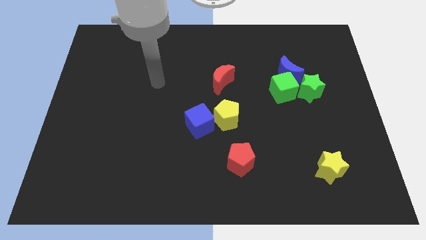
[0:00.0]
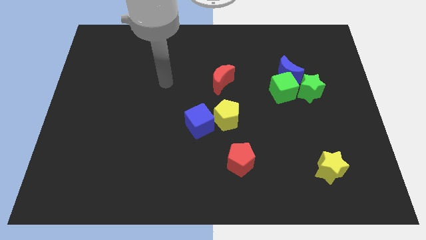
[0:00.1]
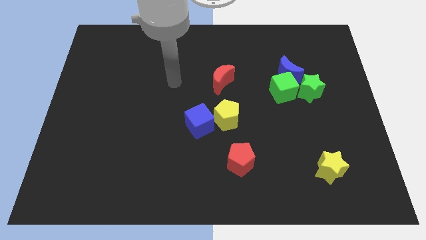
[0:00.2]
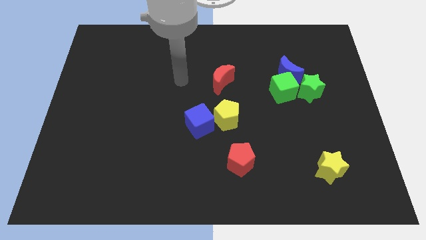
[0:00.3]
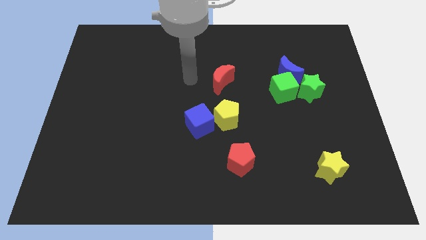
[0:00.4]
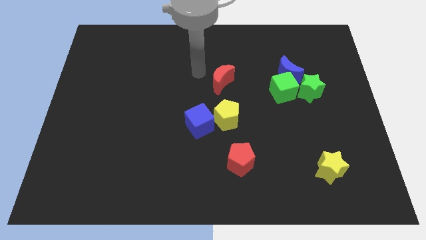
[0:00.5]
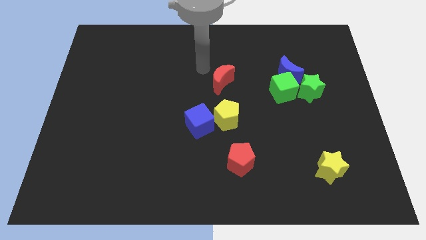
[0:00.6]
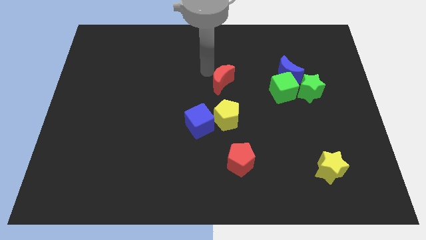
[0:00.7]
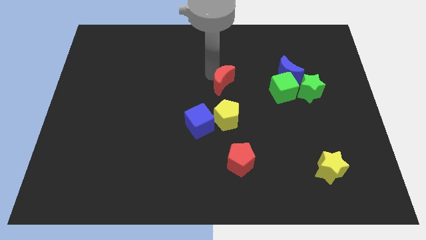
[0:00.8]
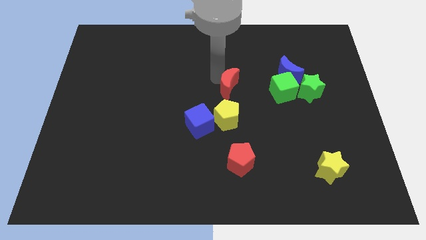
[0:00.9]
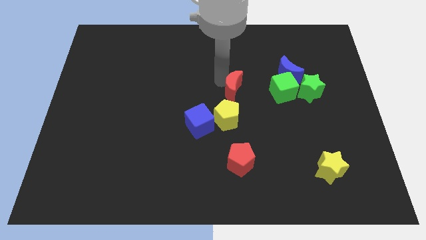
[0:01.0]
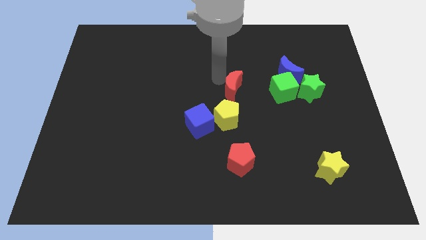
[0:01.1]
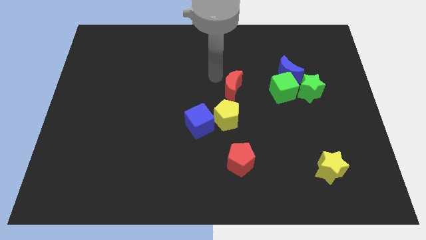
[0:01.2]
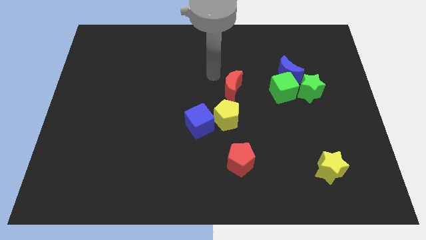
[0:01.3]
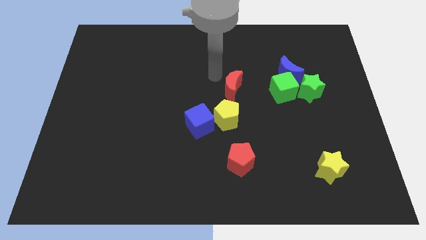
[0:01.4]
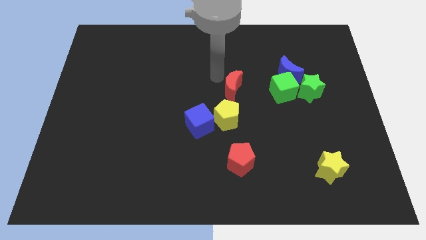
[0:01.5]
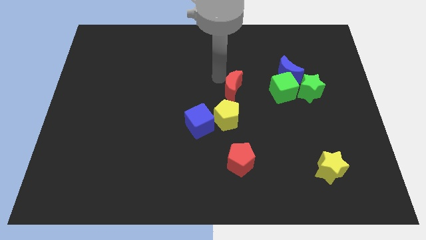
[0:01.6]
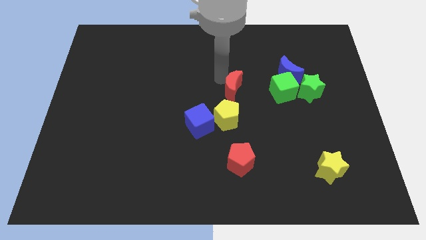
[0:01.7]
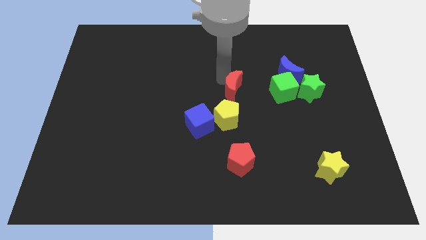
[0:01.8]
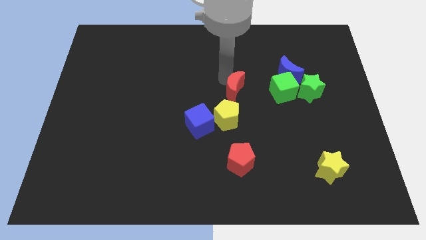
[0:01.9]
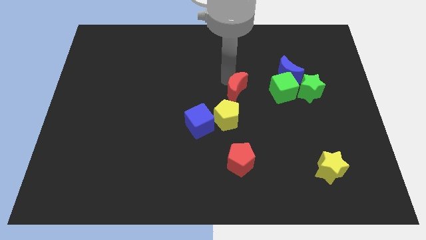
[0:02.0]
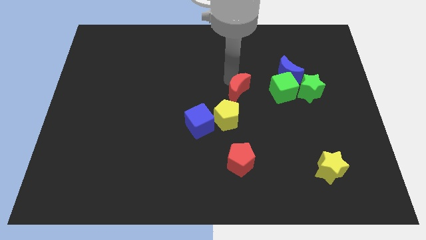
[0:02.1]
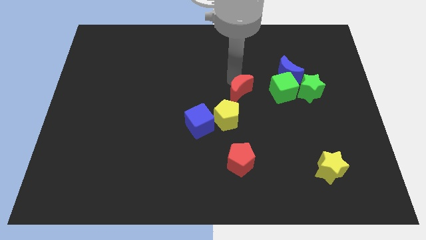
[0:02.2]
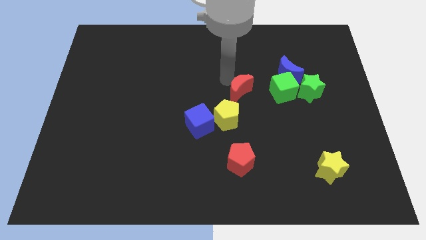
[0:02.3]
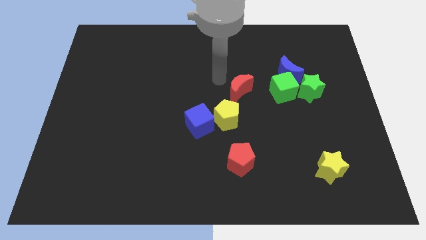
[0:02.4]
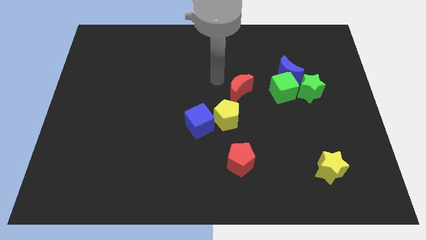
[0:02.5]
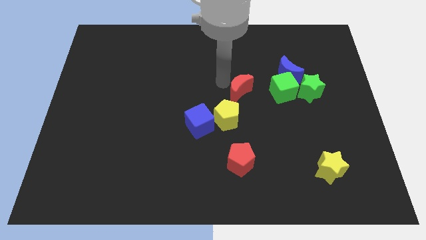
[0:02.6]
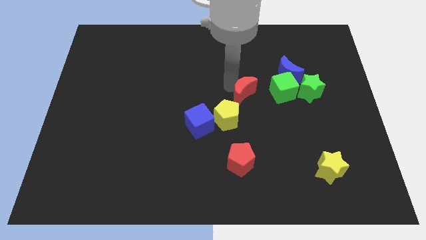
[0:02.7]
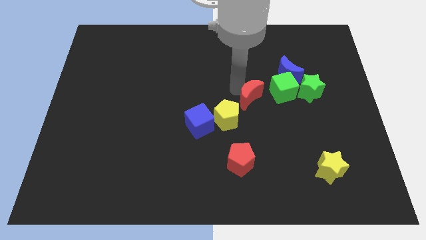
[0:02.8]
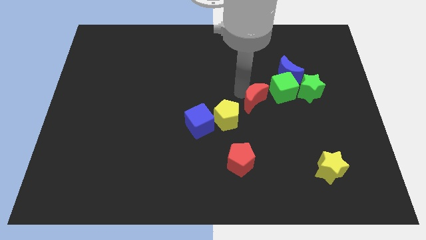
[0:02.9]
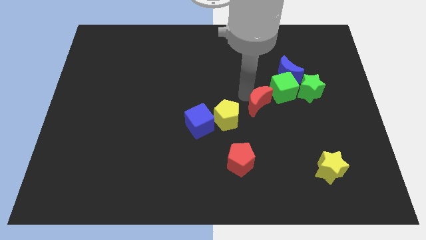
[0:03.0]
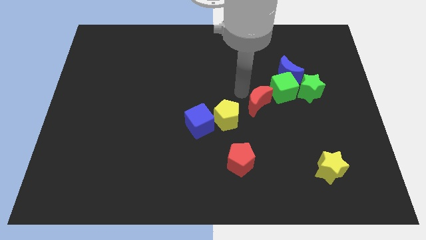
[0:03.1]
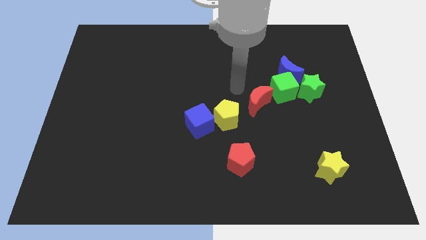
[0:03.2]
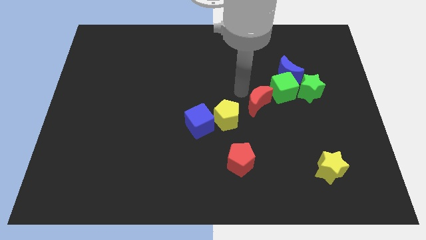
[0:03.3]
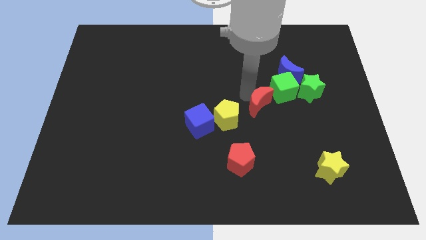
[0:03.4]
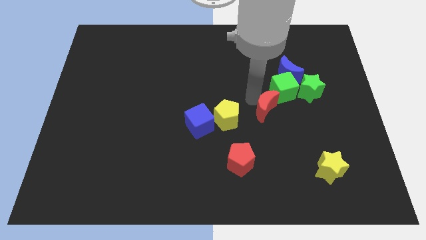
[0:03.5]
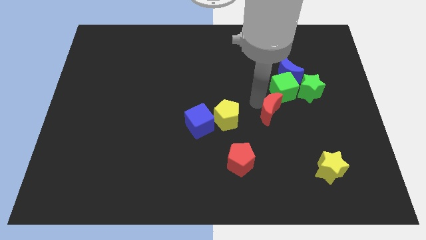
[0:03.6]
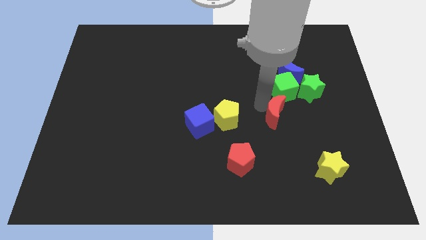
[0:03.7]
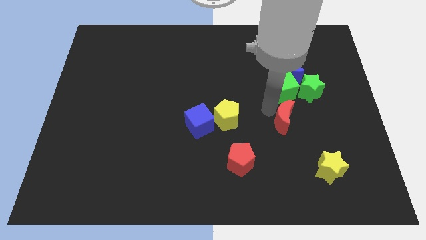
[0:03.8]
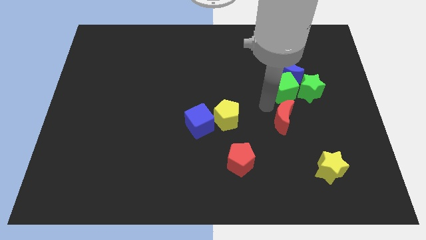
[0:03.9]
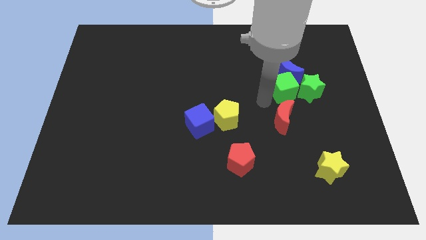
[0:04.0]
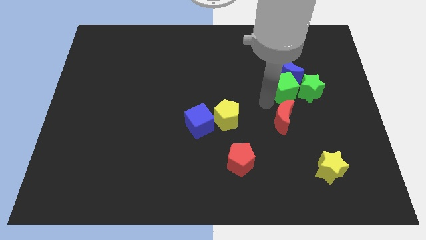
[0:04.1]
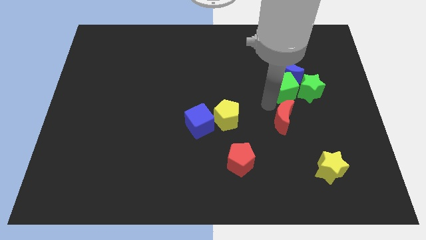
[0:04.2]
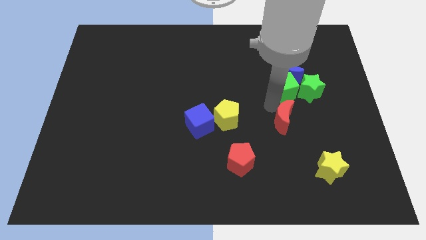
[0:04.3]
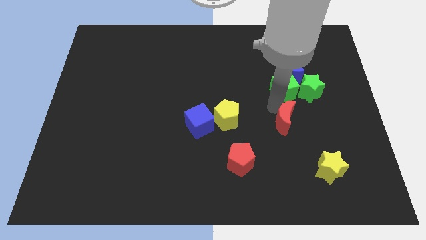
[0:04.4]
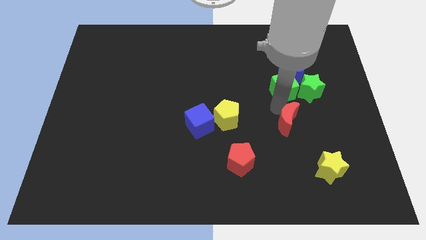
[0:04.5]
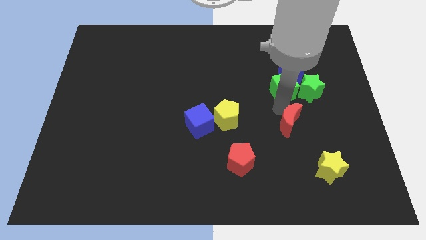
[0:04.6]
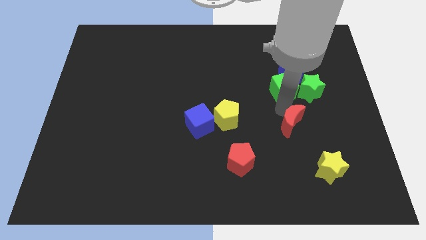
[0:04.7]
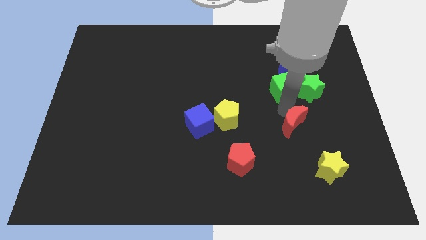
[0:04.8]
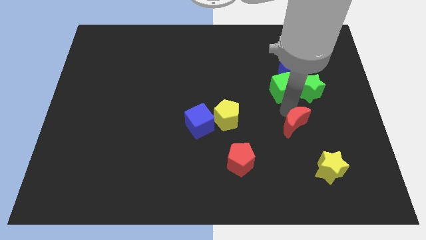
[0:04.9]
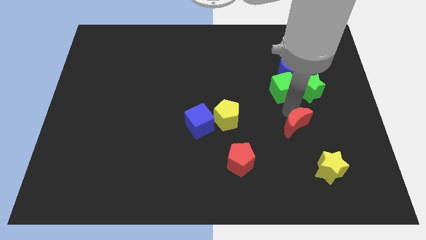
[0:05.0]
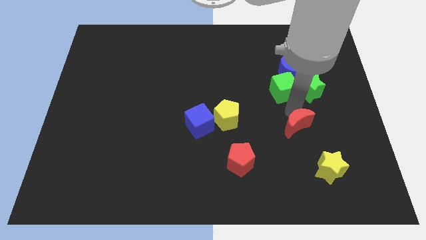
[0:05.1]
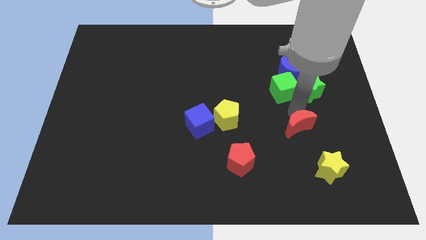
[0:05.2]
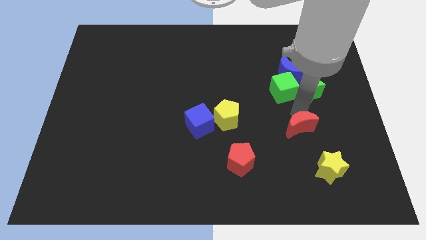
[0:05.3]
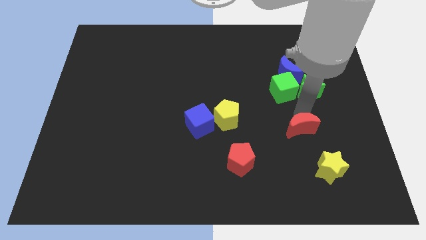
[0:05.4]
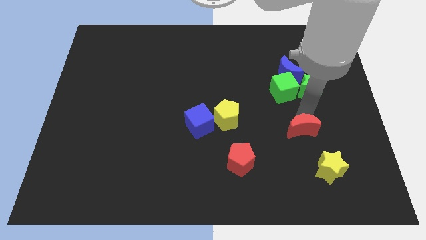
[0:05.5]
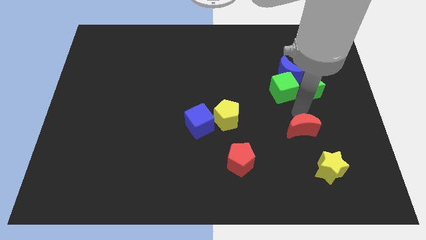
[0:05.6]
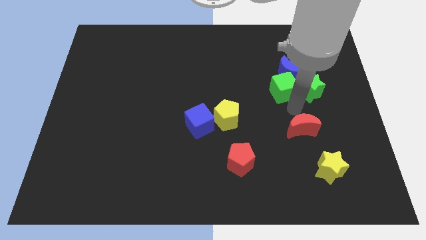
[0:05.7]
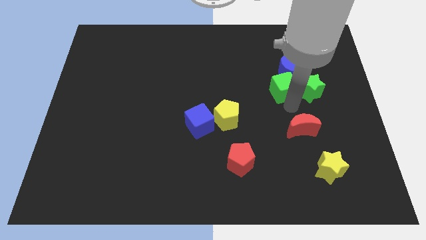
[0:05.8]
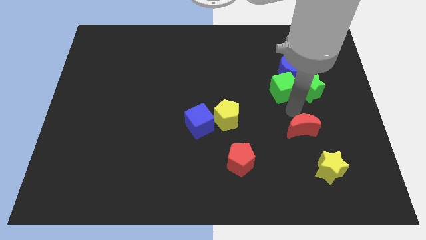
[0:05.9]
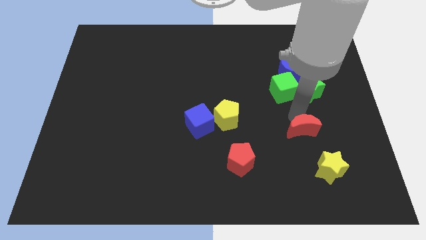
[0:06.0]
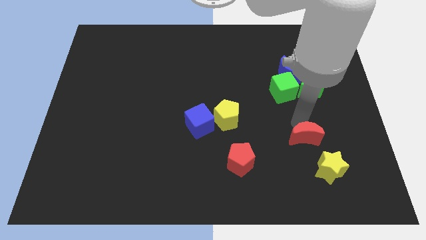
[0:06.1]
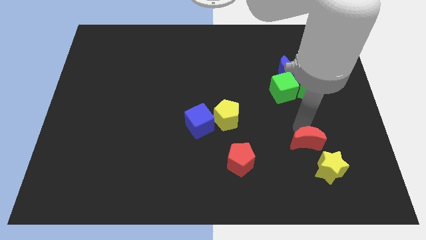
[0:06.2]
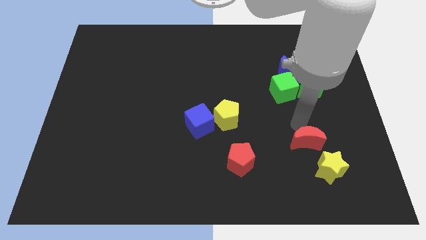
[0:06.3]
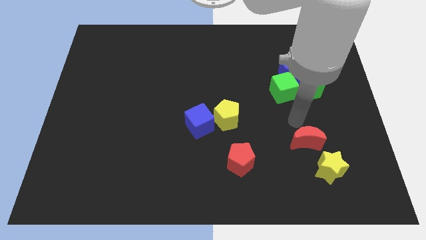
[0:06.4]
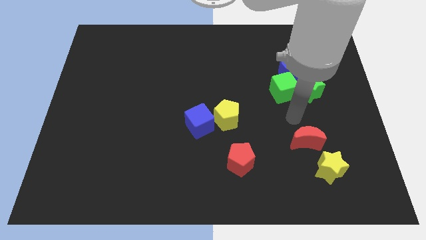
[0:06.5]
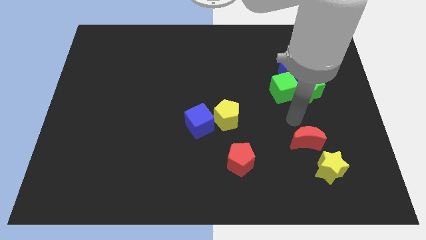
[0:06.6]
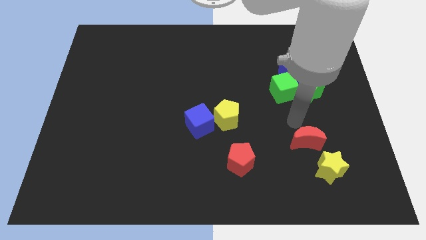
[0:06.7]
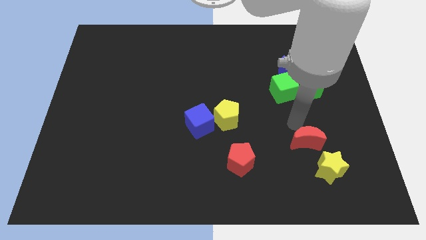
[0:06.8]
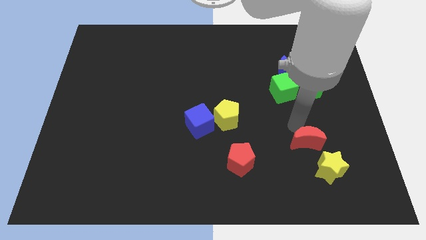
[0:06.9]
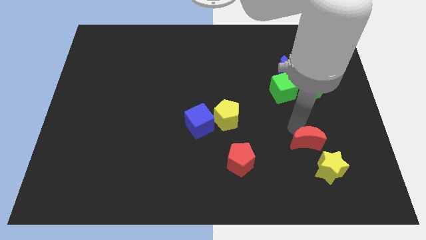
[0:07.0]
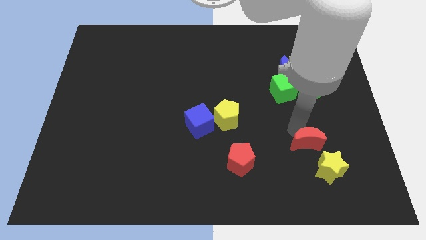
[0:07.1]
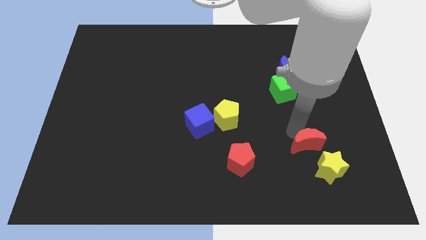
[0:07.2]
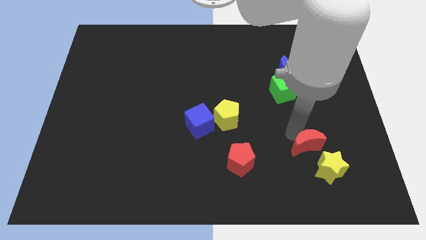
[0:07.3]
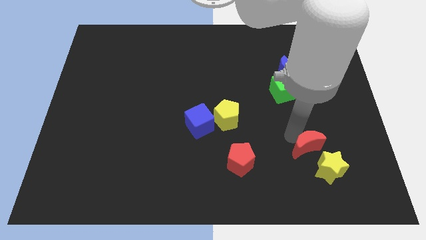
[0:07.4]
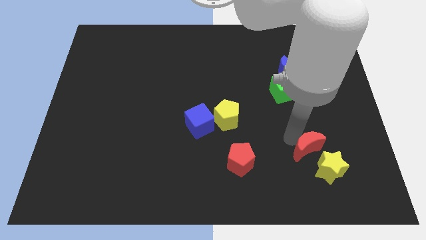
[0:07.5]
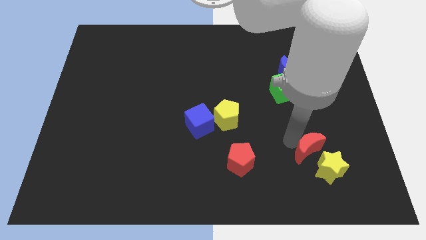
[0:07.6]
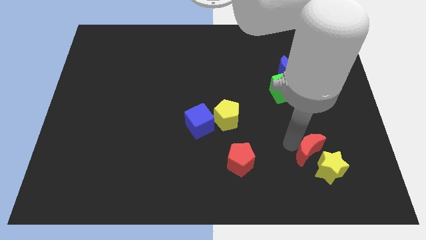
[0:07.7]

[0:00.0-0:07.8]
push the red moon to the yellow star
